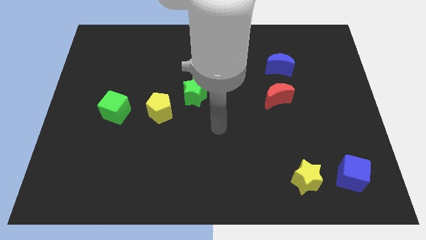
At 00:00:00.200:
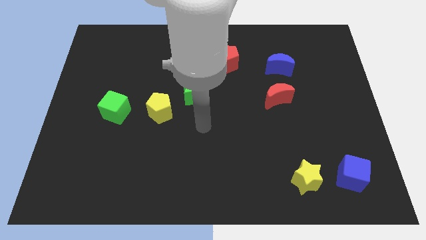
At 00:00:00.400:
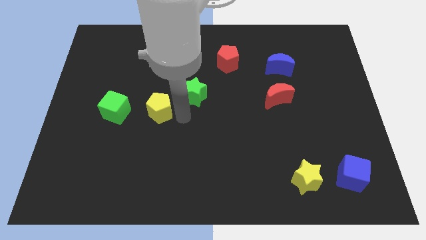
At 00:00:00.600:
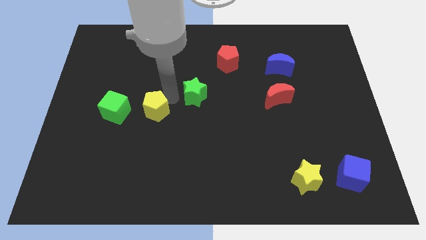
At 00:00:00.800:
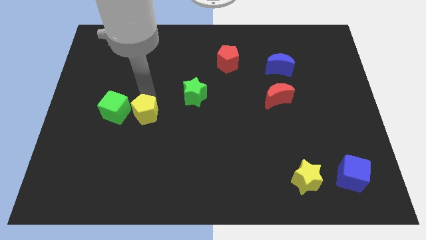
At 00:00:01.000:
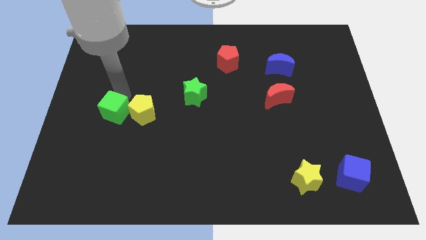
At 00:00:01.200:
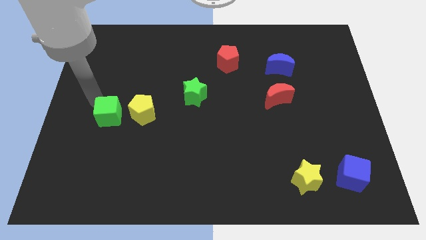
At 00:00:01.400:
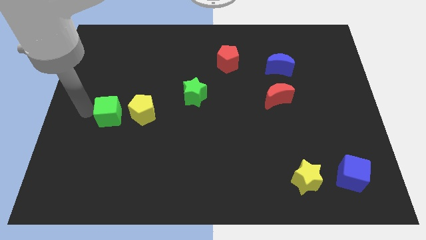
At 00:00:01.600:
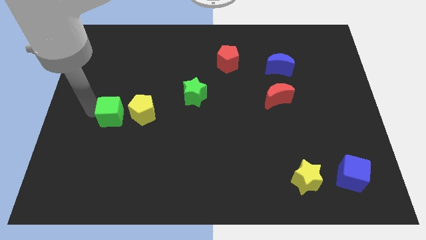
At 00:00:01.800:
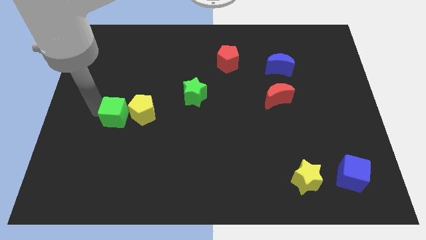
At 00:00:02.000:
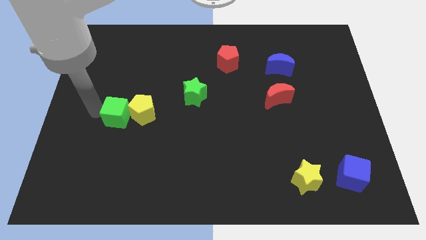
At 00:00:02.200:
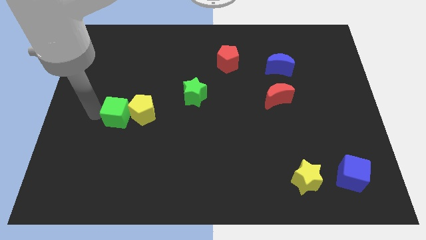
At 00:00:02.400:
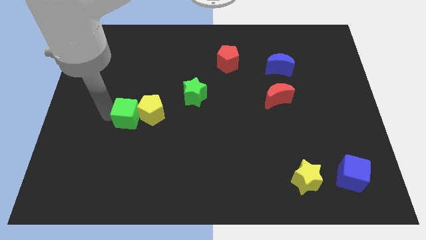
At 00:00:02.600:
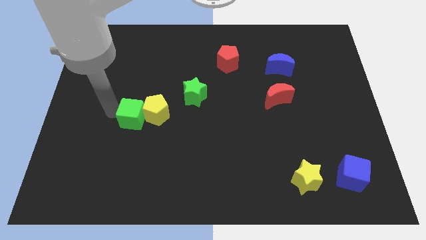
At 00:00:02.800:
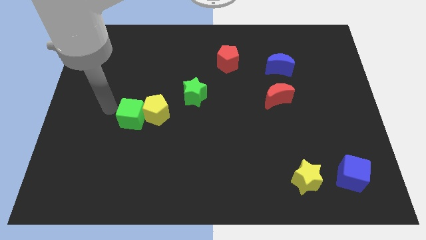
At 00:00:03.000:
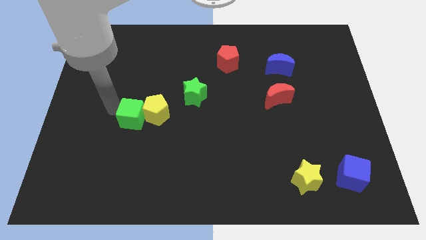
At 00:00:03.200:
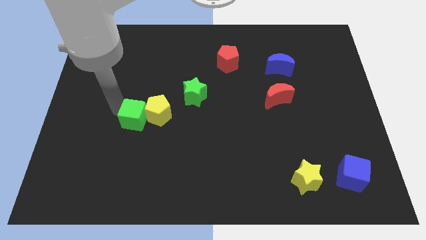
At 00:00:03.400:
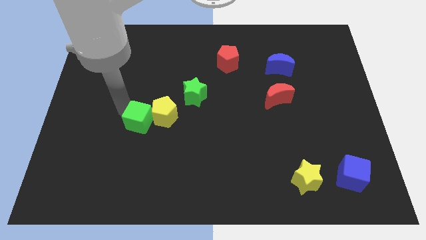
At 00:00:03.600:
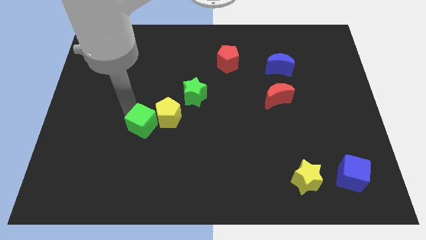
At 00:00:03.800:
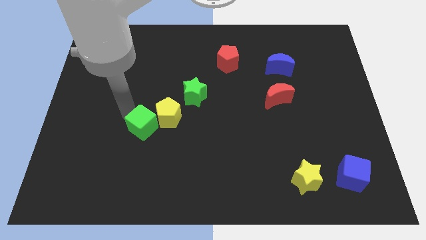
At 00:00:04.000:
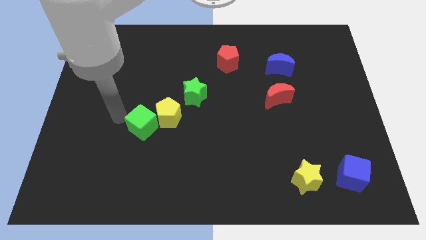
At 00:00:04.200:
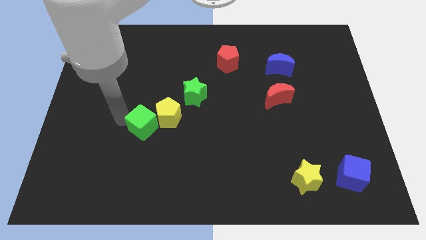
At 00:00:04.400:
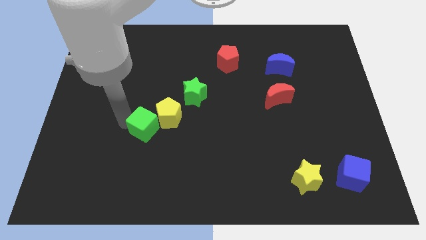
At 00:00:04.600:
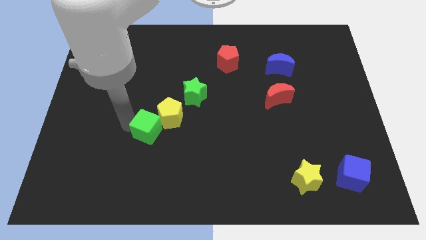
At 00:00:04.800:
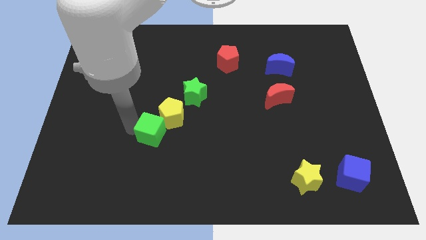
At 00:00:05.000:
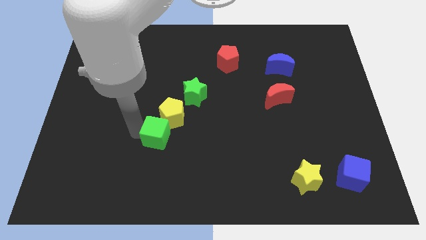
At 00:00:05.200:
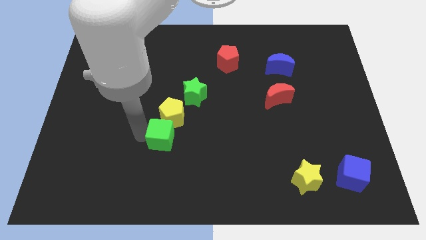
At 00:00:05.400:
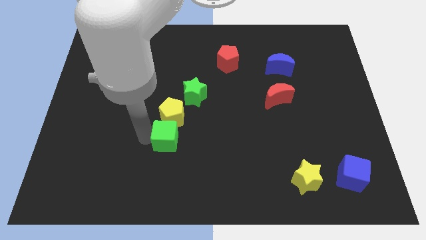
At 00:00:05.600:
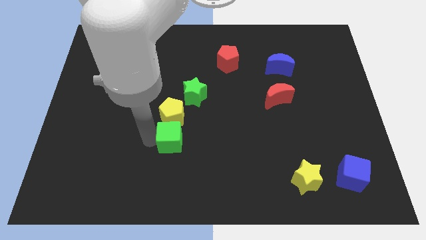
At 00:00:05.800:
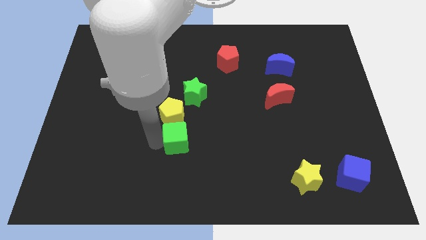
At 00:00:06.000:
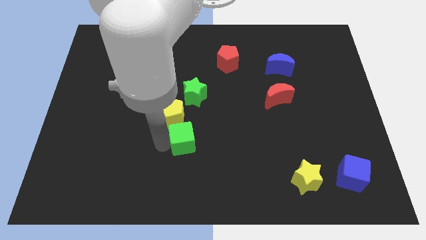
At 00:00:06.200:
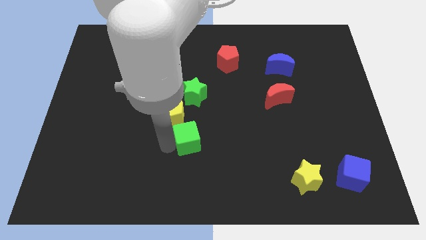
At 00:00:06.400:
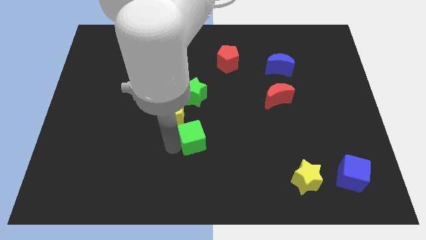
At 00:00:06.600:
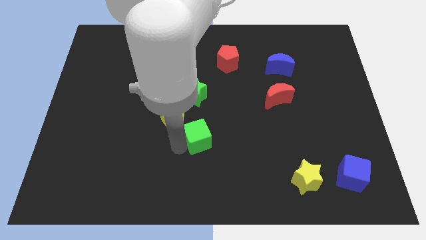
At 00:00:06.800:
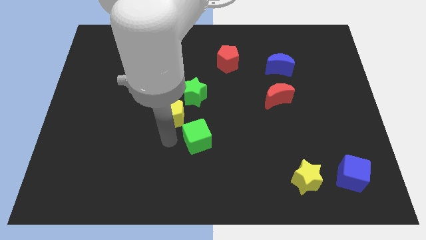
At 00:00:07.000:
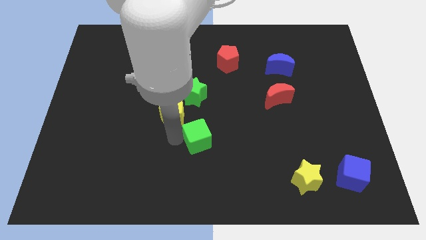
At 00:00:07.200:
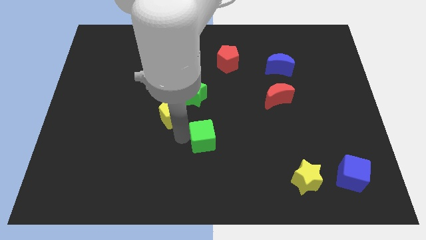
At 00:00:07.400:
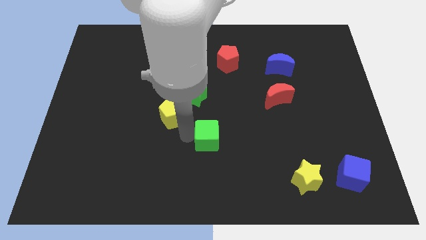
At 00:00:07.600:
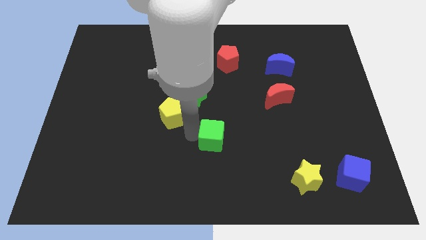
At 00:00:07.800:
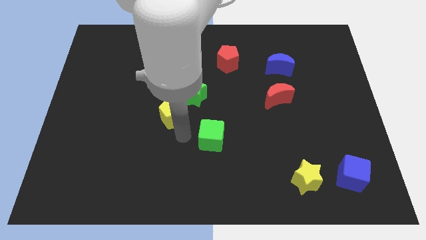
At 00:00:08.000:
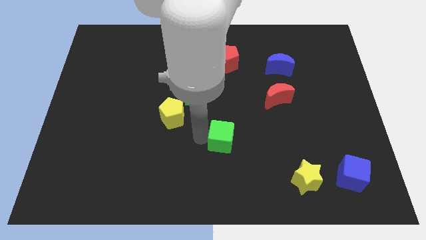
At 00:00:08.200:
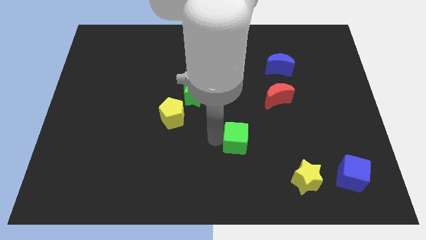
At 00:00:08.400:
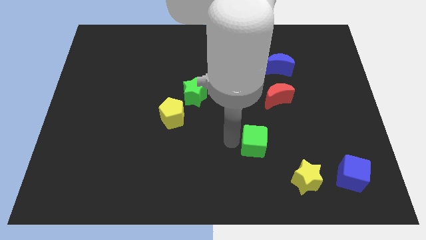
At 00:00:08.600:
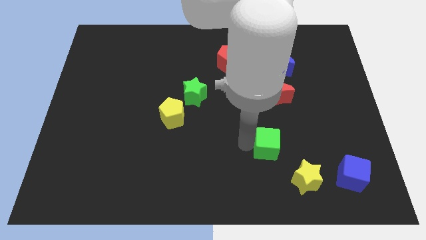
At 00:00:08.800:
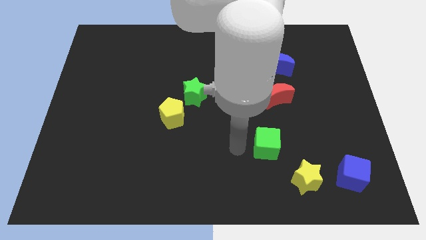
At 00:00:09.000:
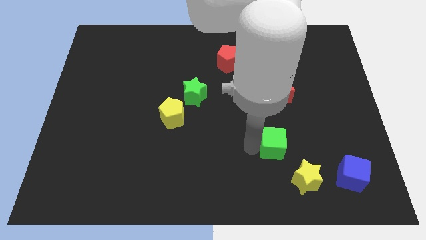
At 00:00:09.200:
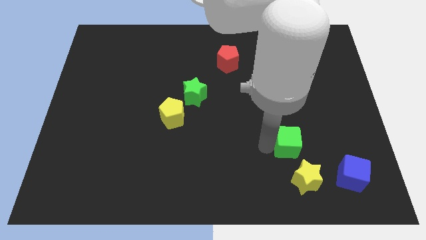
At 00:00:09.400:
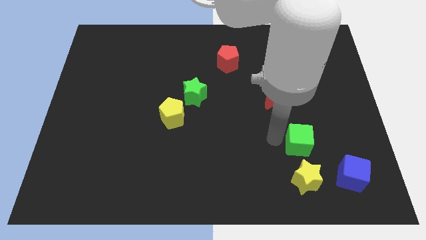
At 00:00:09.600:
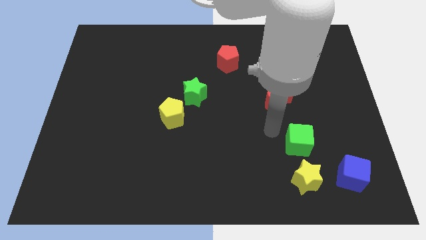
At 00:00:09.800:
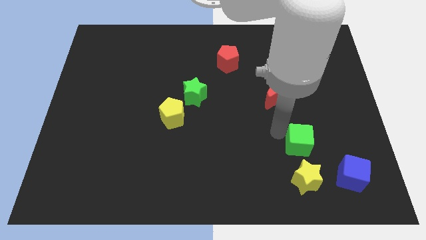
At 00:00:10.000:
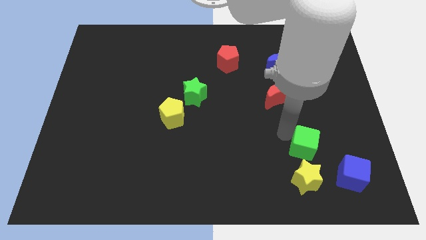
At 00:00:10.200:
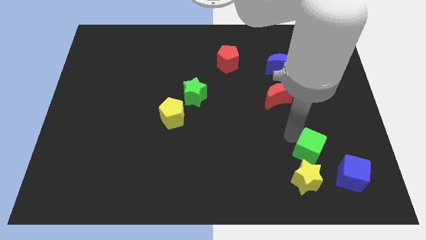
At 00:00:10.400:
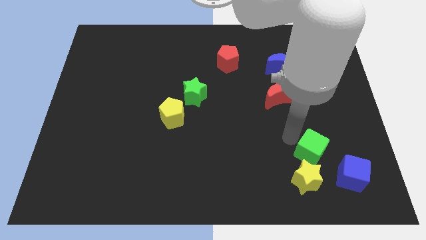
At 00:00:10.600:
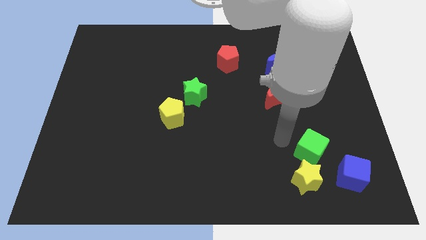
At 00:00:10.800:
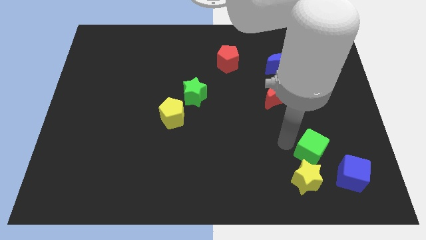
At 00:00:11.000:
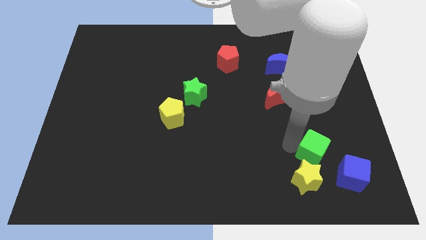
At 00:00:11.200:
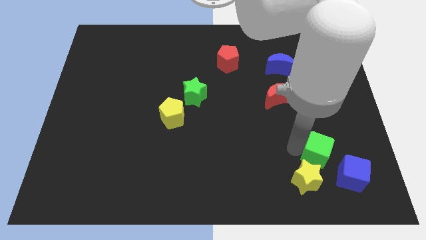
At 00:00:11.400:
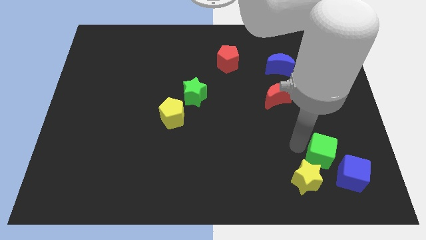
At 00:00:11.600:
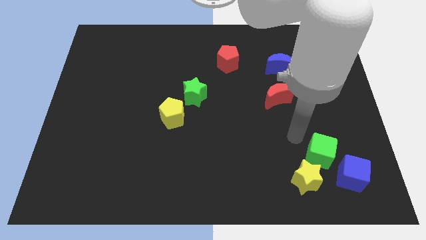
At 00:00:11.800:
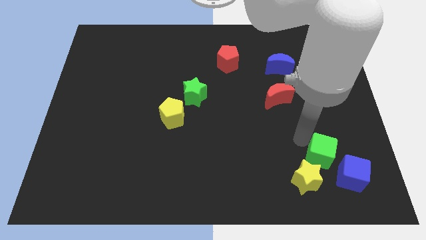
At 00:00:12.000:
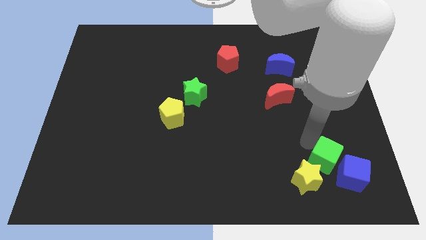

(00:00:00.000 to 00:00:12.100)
put the green cube close to the blue cube

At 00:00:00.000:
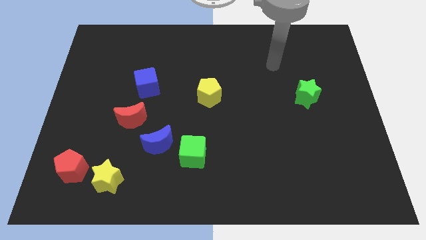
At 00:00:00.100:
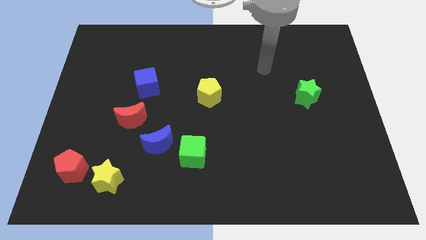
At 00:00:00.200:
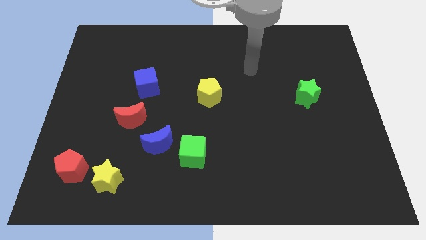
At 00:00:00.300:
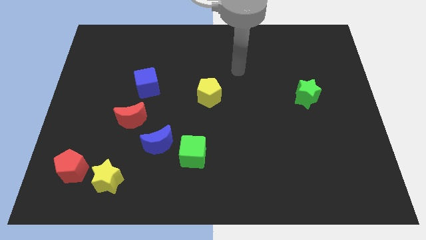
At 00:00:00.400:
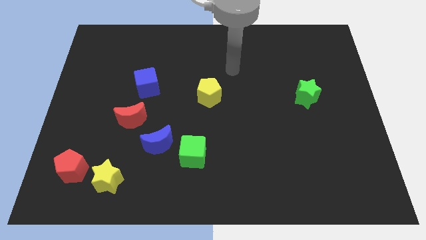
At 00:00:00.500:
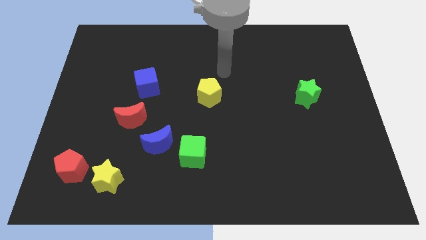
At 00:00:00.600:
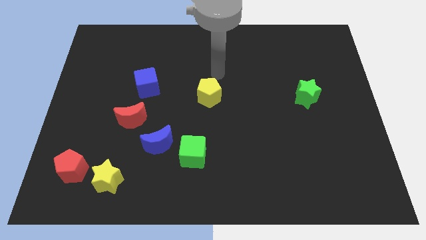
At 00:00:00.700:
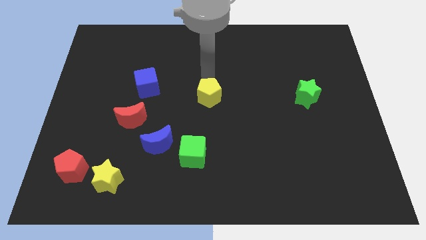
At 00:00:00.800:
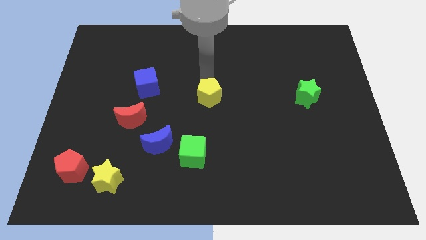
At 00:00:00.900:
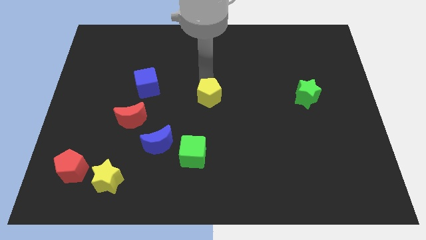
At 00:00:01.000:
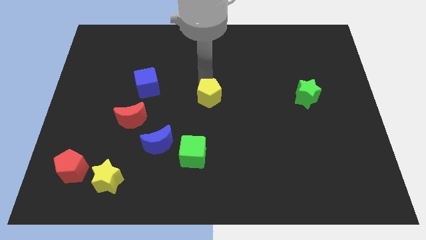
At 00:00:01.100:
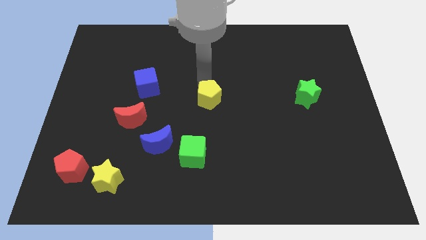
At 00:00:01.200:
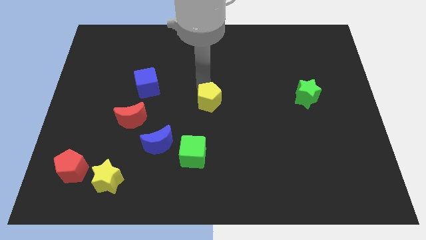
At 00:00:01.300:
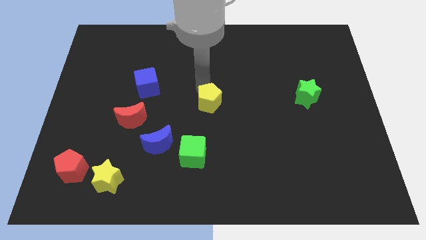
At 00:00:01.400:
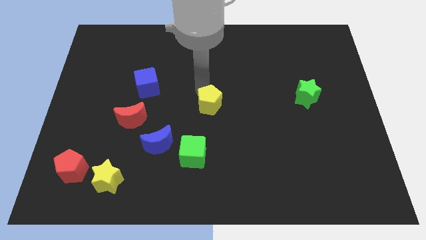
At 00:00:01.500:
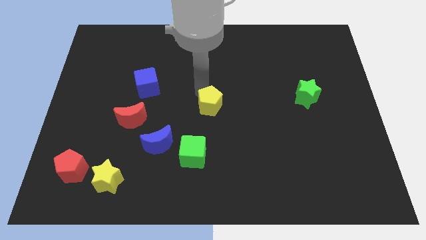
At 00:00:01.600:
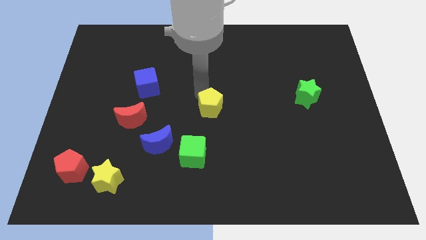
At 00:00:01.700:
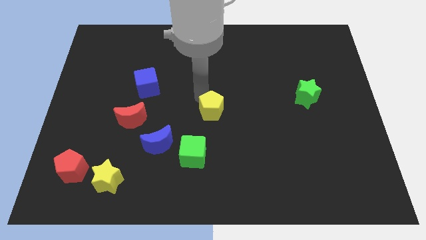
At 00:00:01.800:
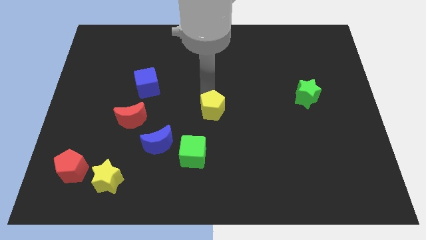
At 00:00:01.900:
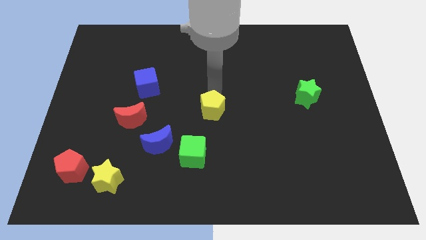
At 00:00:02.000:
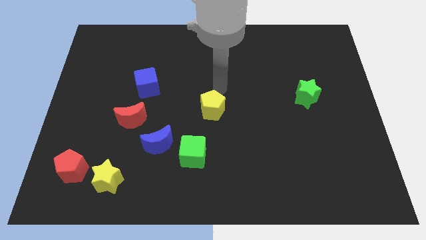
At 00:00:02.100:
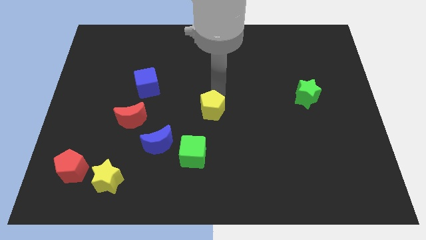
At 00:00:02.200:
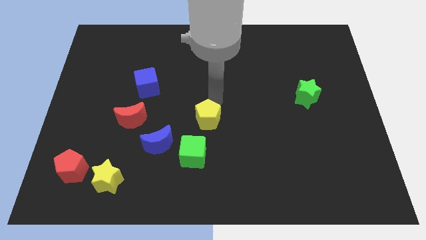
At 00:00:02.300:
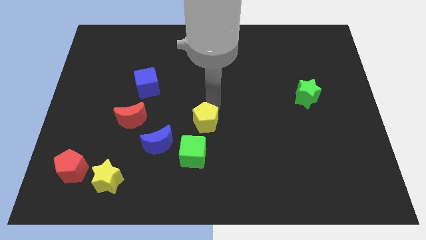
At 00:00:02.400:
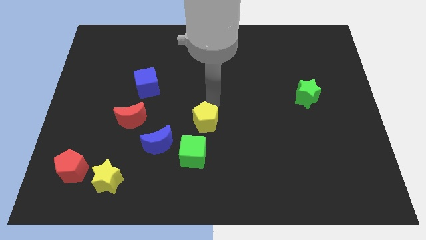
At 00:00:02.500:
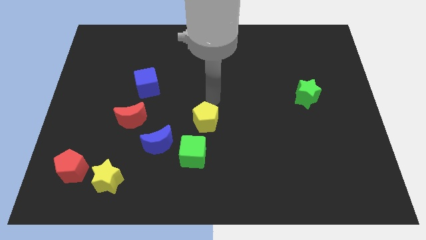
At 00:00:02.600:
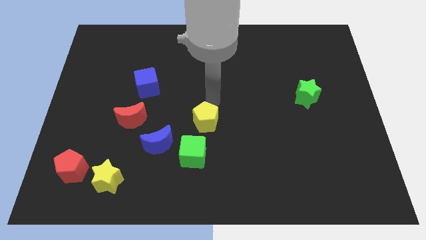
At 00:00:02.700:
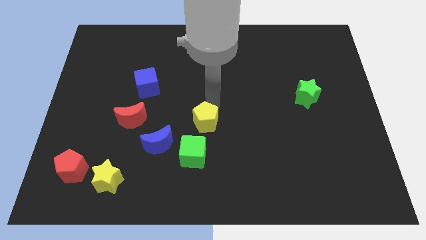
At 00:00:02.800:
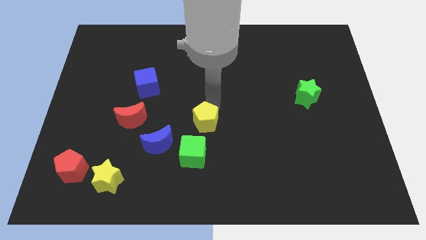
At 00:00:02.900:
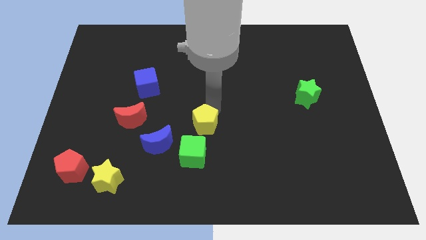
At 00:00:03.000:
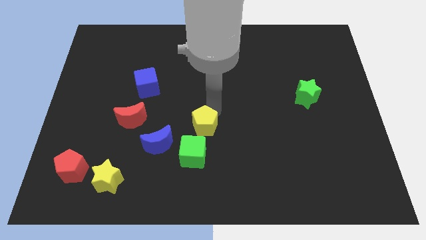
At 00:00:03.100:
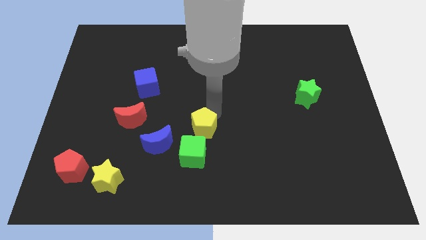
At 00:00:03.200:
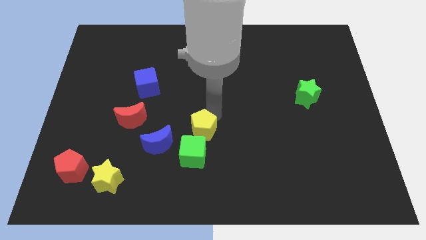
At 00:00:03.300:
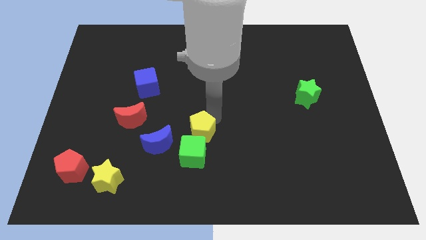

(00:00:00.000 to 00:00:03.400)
move the yellow pentagon to the green cube
